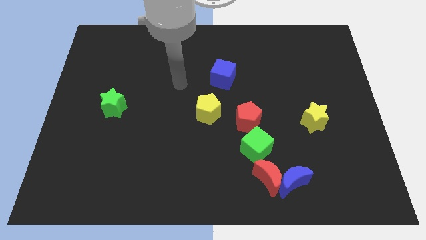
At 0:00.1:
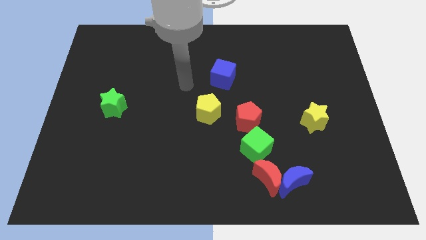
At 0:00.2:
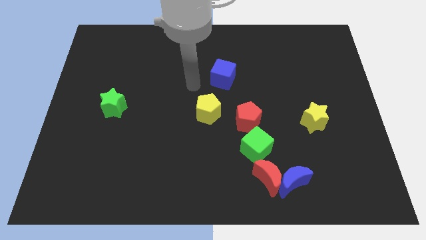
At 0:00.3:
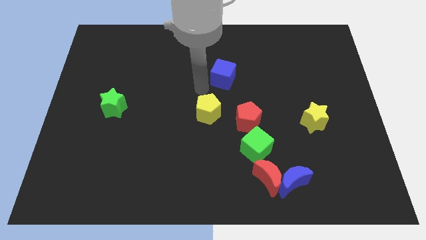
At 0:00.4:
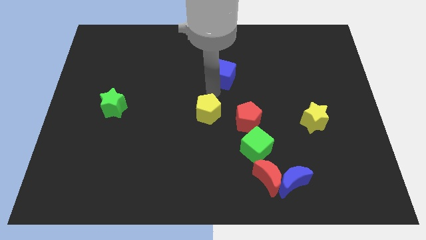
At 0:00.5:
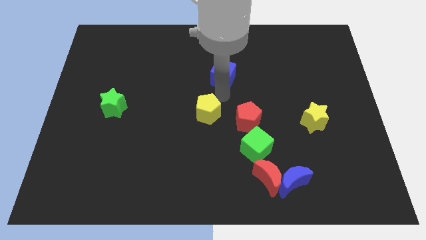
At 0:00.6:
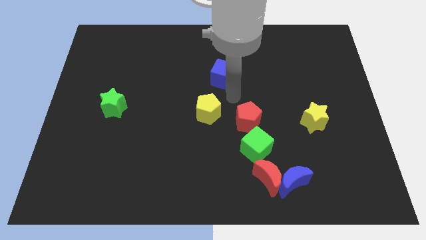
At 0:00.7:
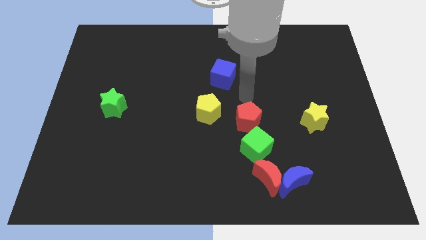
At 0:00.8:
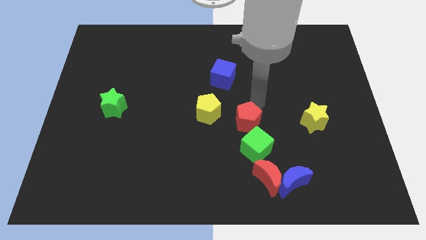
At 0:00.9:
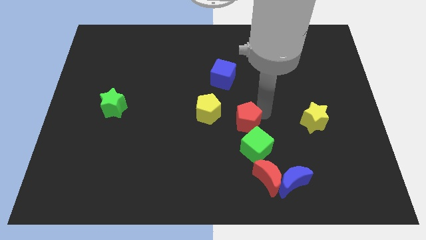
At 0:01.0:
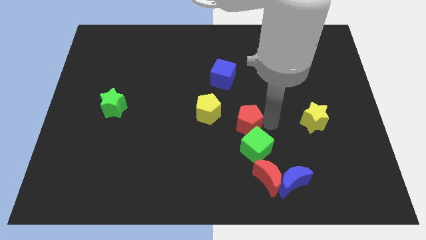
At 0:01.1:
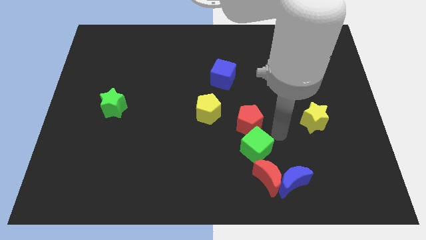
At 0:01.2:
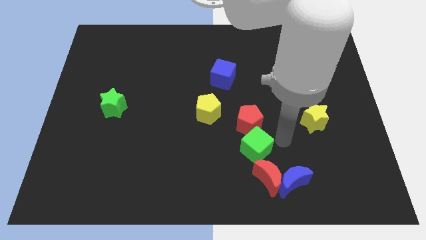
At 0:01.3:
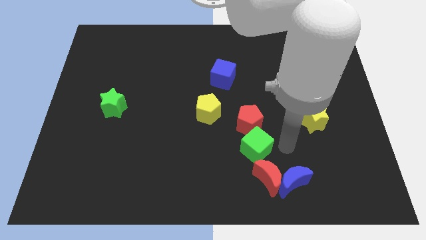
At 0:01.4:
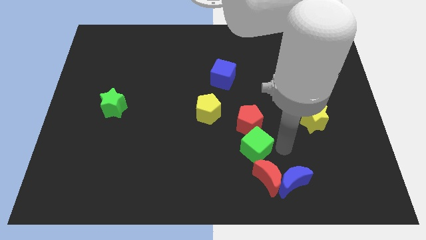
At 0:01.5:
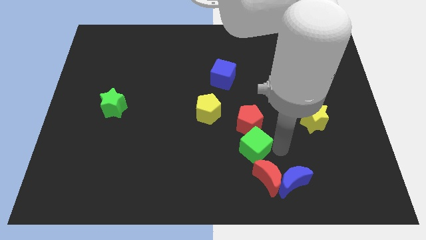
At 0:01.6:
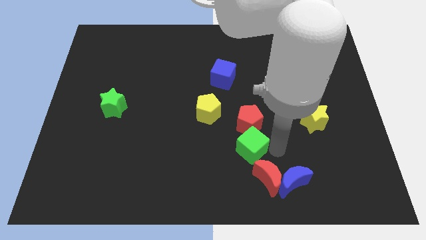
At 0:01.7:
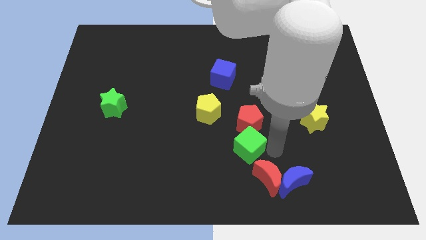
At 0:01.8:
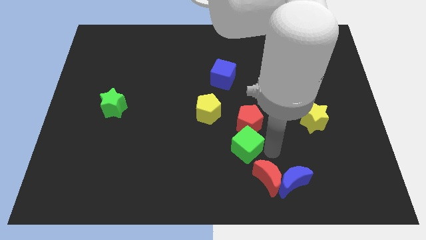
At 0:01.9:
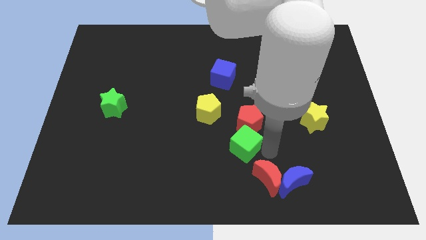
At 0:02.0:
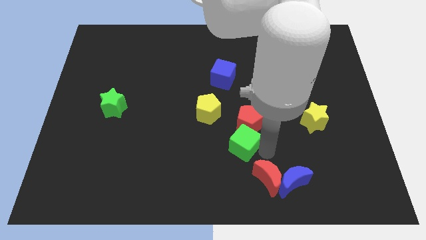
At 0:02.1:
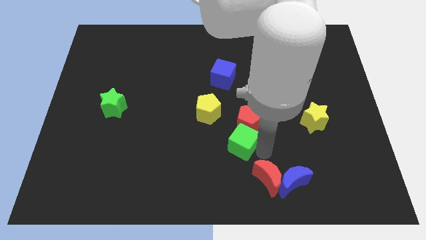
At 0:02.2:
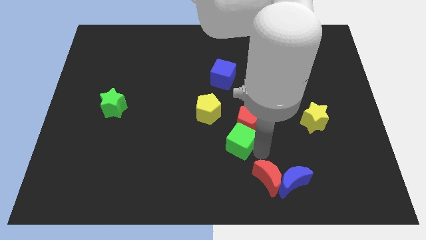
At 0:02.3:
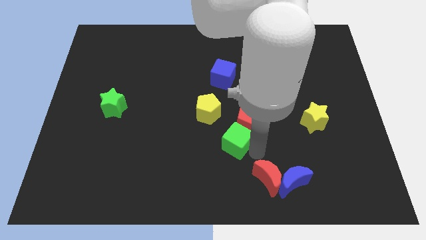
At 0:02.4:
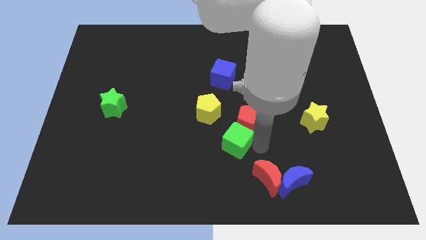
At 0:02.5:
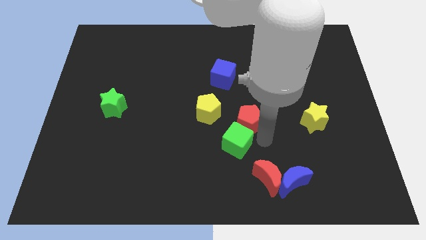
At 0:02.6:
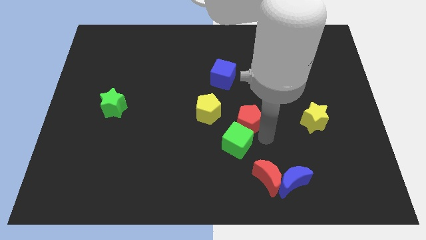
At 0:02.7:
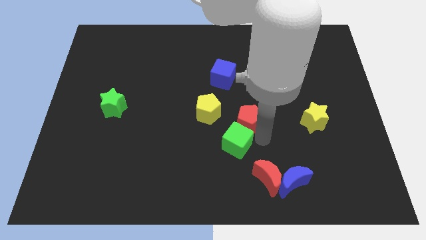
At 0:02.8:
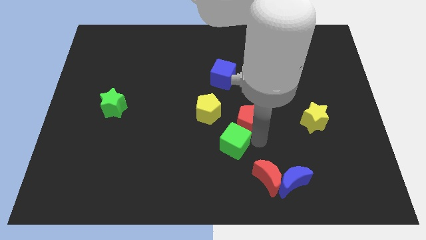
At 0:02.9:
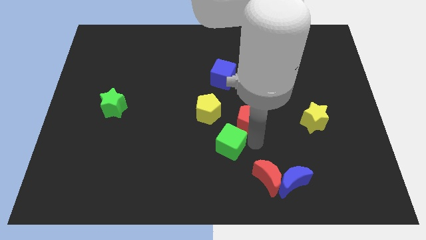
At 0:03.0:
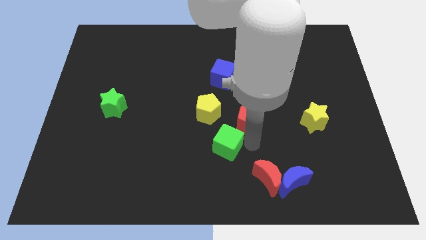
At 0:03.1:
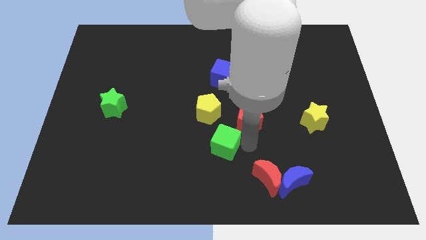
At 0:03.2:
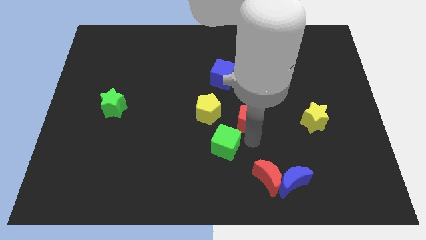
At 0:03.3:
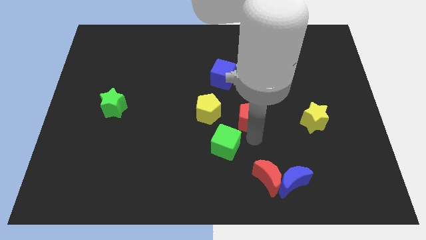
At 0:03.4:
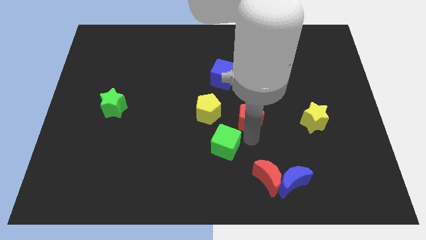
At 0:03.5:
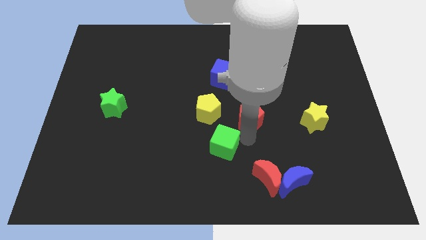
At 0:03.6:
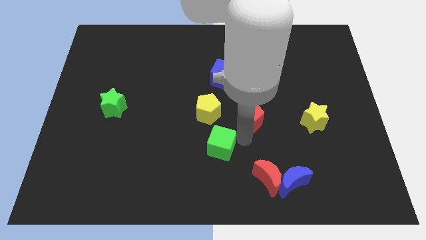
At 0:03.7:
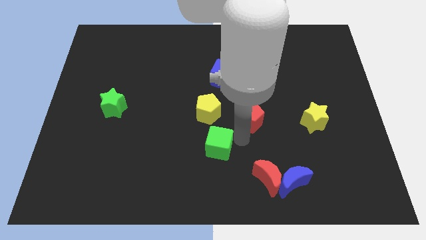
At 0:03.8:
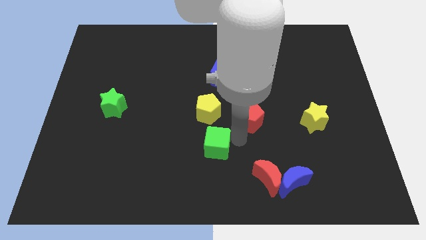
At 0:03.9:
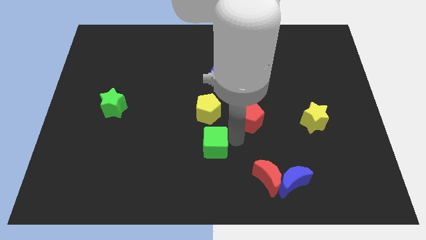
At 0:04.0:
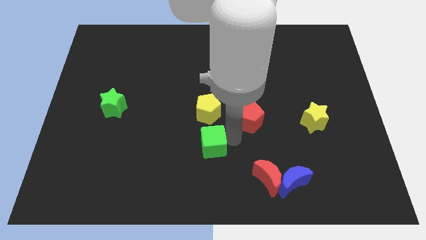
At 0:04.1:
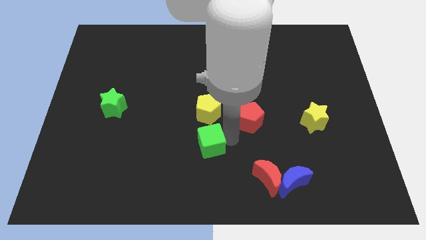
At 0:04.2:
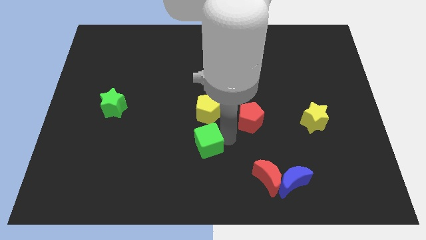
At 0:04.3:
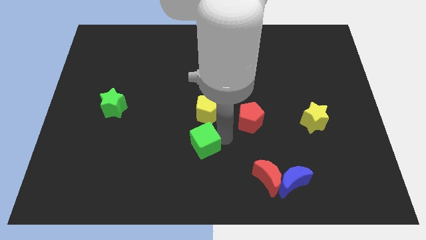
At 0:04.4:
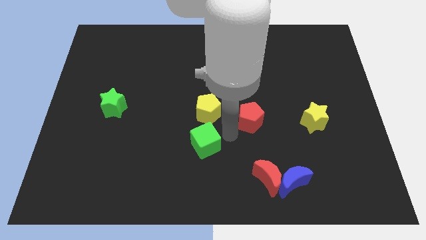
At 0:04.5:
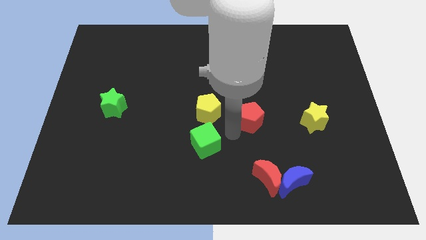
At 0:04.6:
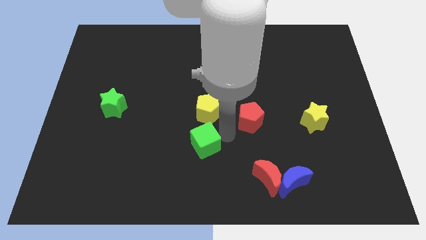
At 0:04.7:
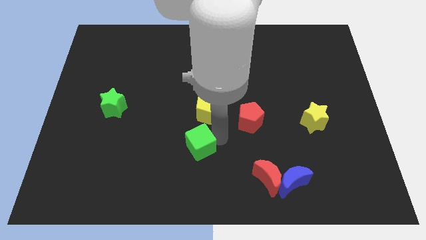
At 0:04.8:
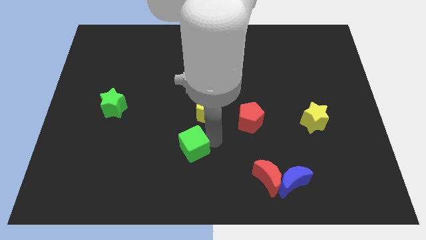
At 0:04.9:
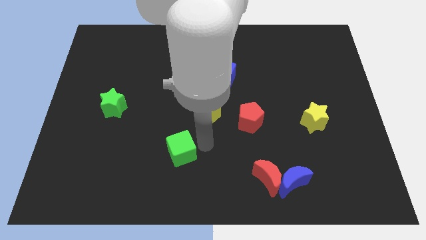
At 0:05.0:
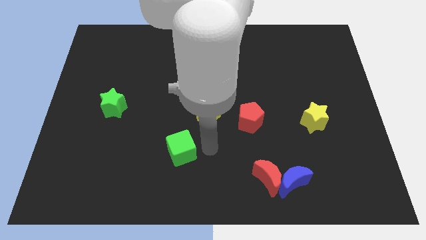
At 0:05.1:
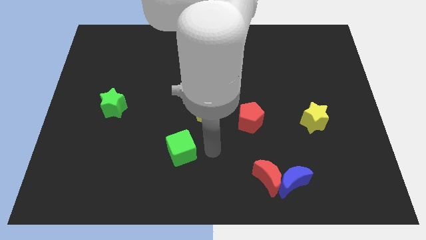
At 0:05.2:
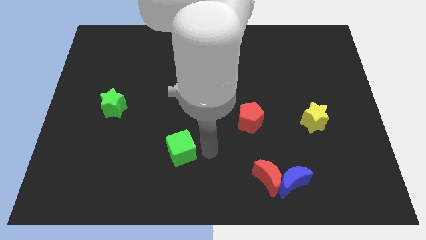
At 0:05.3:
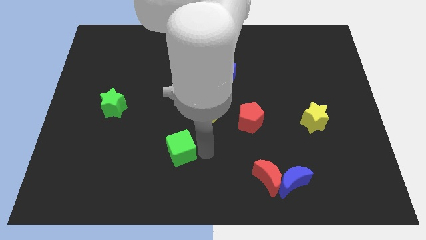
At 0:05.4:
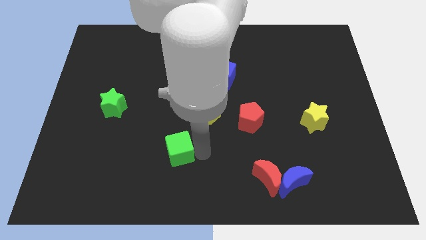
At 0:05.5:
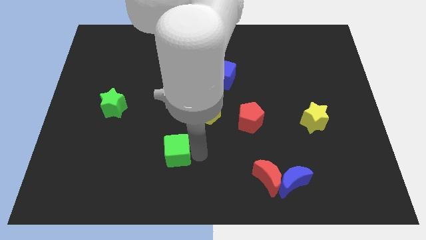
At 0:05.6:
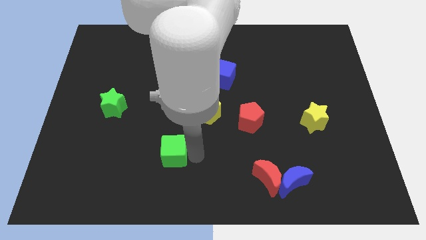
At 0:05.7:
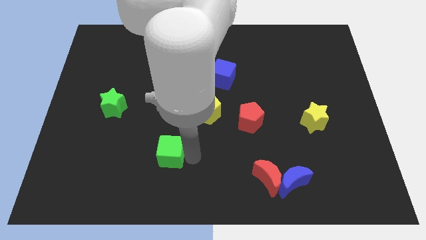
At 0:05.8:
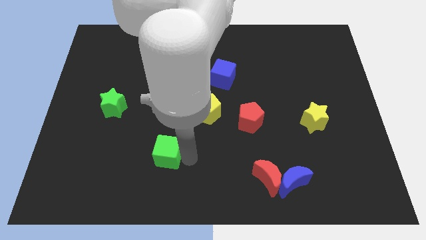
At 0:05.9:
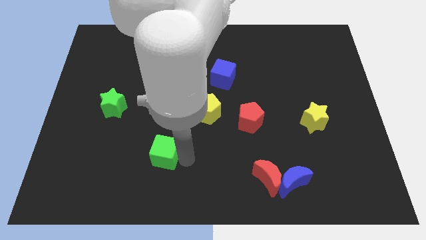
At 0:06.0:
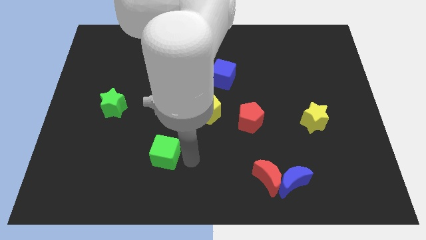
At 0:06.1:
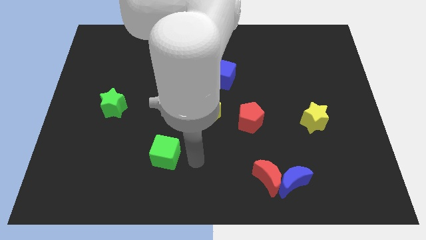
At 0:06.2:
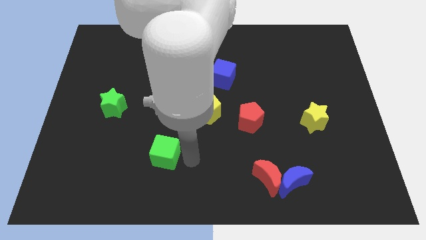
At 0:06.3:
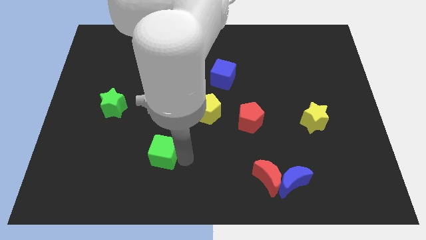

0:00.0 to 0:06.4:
push the green cube left

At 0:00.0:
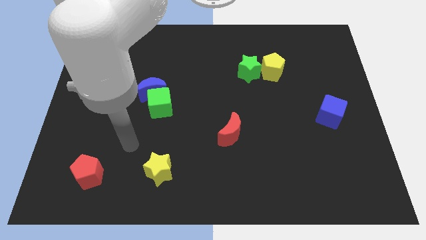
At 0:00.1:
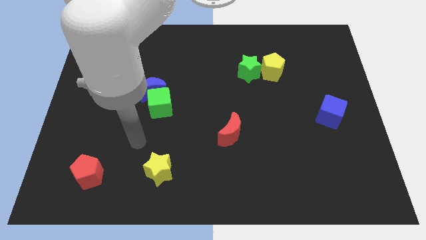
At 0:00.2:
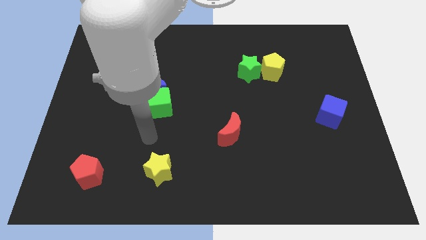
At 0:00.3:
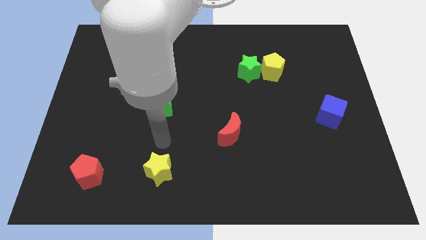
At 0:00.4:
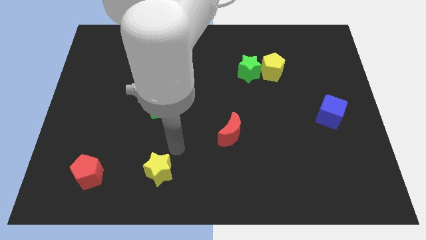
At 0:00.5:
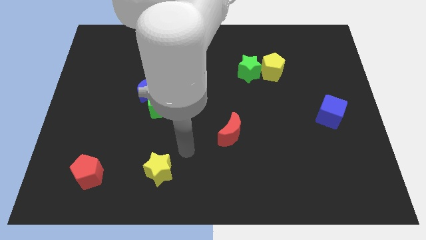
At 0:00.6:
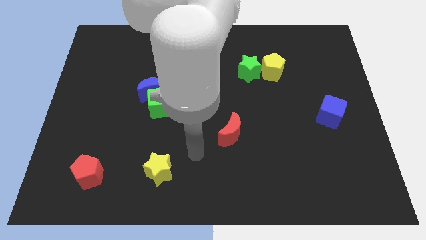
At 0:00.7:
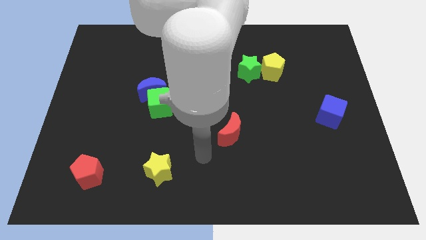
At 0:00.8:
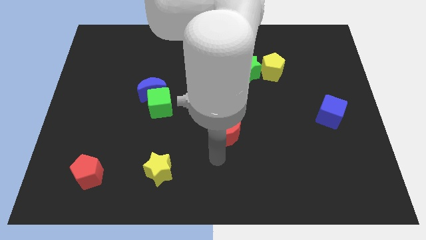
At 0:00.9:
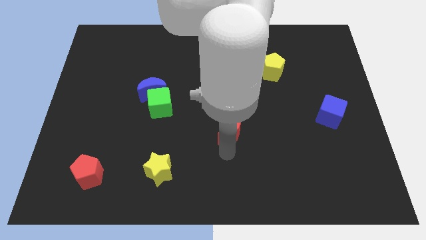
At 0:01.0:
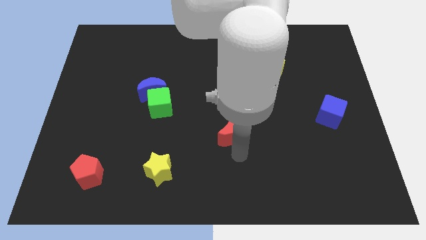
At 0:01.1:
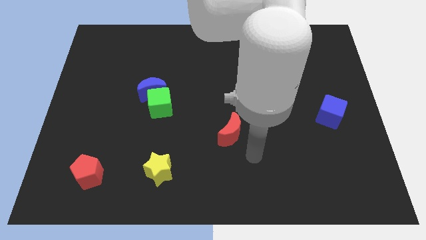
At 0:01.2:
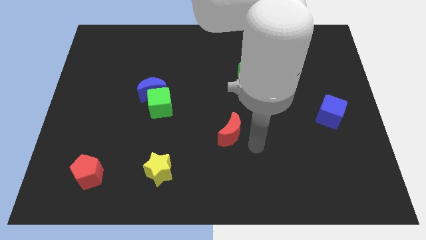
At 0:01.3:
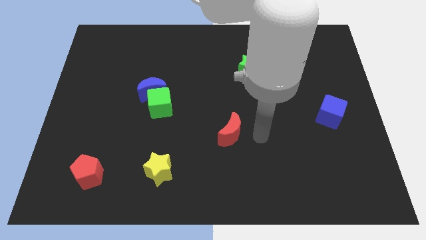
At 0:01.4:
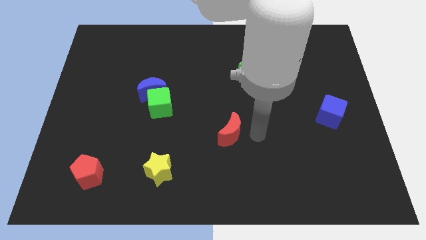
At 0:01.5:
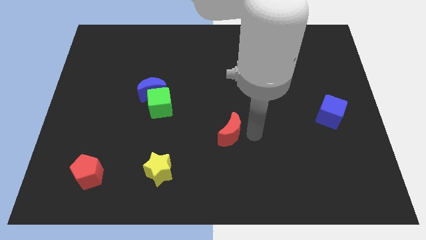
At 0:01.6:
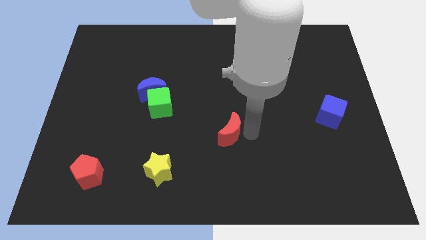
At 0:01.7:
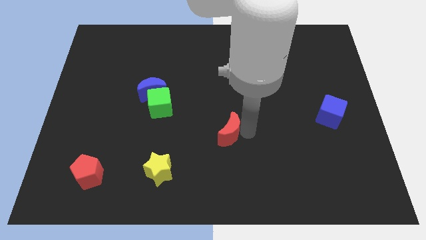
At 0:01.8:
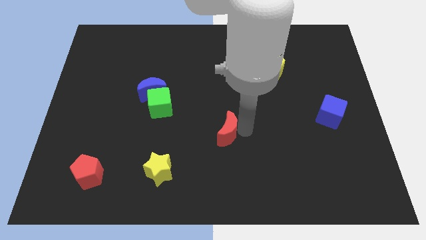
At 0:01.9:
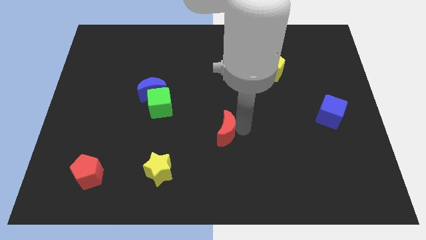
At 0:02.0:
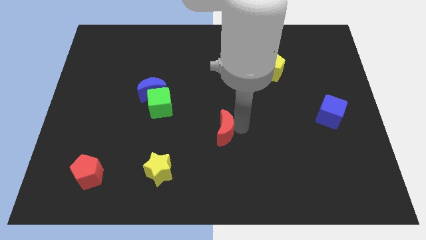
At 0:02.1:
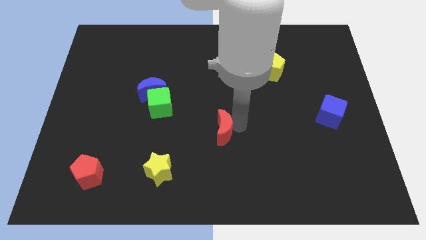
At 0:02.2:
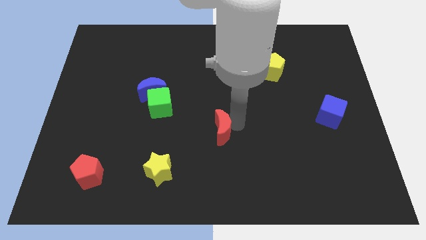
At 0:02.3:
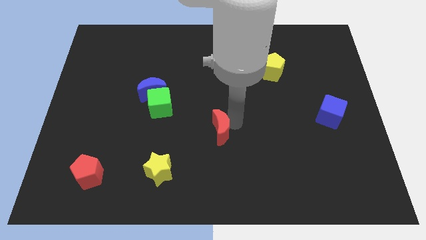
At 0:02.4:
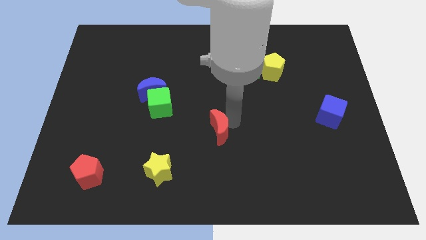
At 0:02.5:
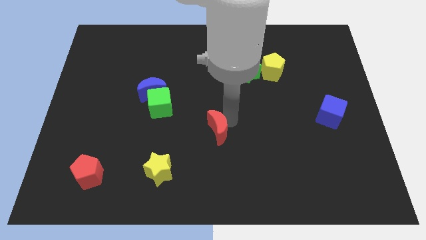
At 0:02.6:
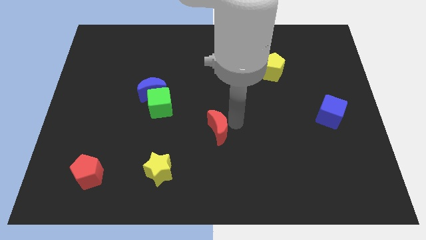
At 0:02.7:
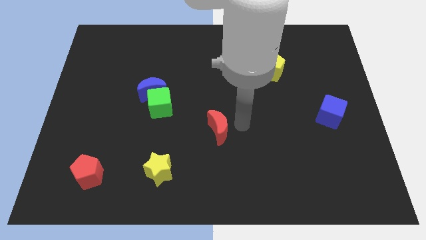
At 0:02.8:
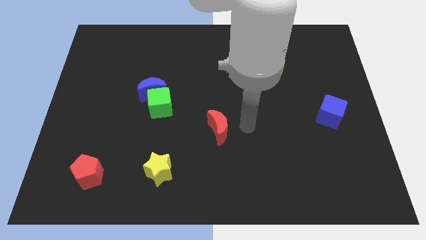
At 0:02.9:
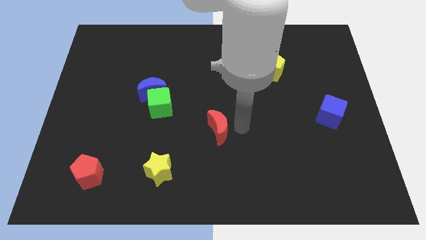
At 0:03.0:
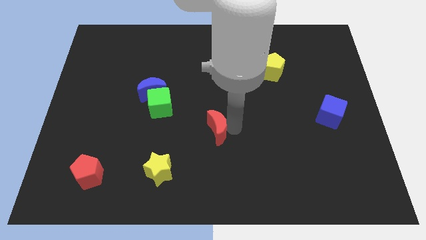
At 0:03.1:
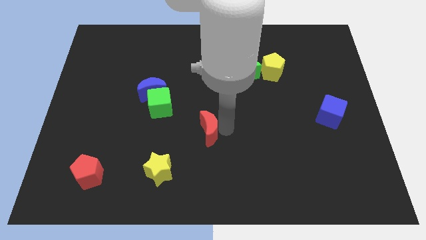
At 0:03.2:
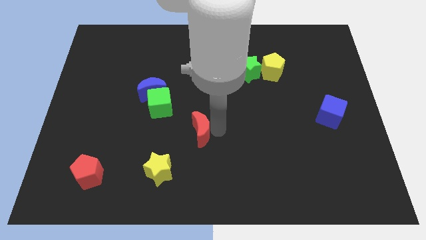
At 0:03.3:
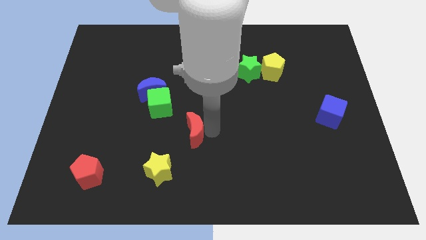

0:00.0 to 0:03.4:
slightly move the red moon to the left
